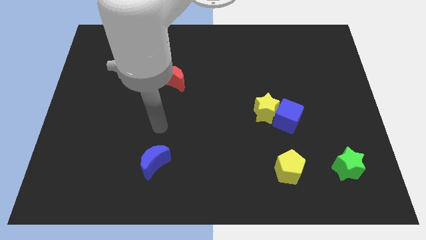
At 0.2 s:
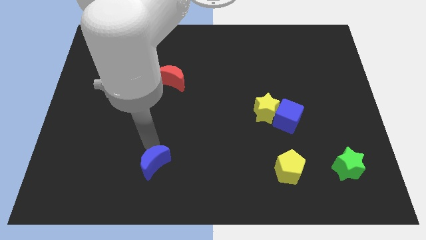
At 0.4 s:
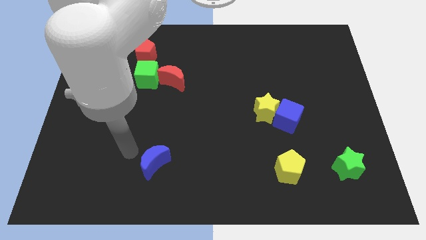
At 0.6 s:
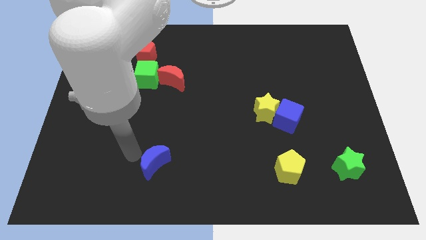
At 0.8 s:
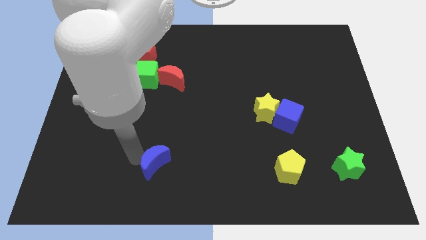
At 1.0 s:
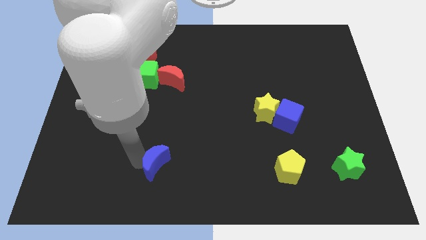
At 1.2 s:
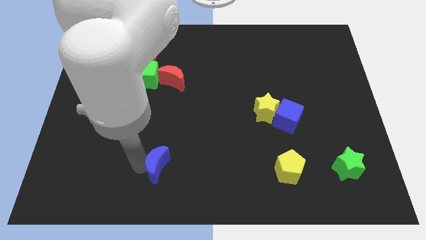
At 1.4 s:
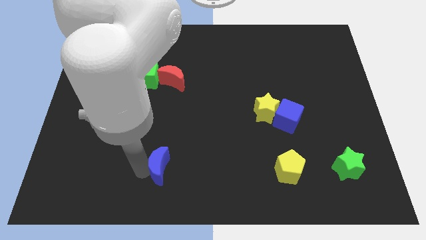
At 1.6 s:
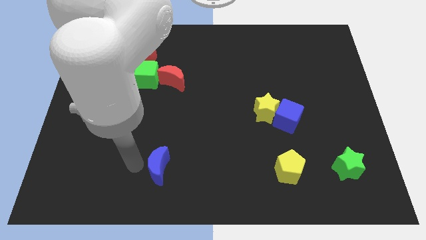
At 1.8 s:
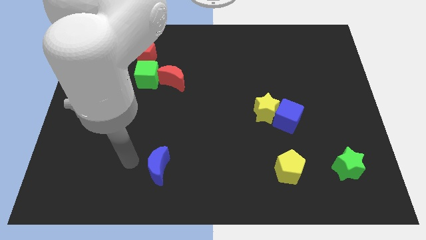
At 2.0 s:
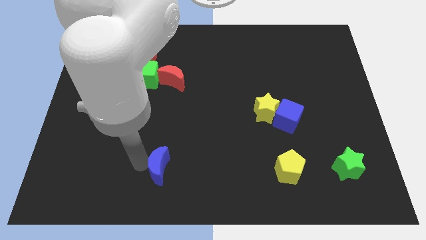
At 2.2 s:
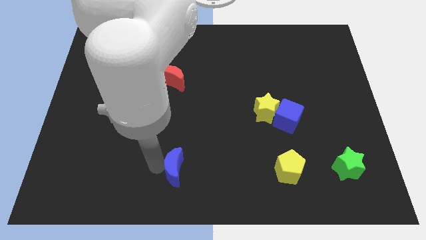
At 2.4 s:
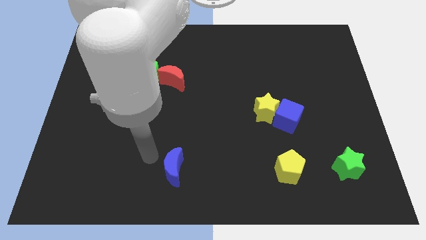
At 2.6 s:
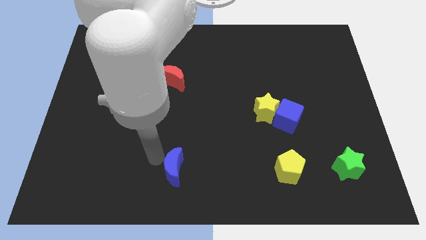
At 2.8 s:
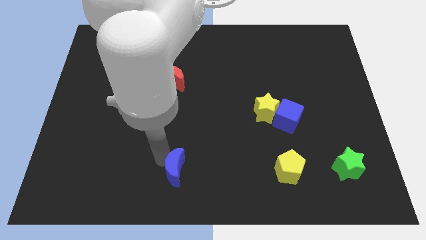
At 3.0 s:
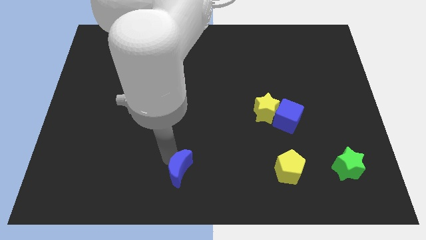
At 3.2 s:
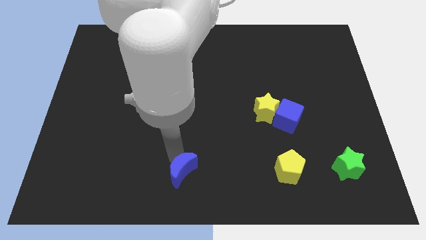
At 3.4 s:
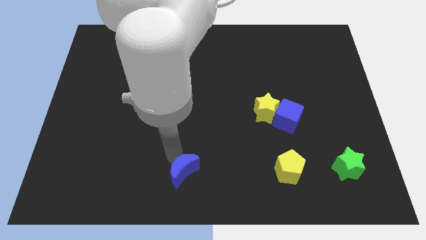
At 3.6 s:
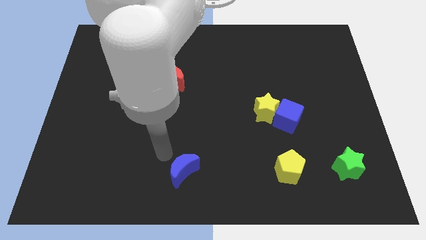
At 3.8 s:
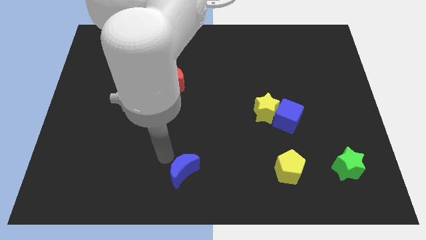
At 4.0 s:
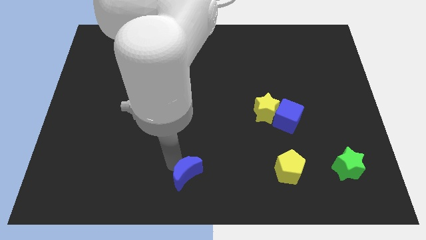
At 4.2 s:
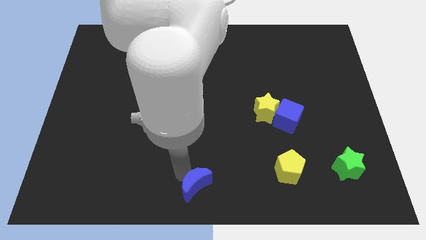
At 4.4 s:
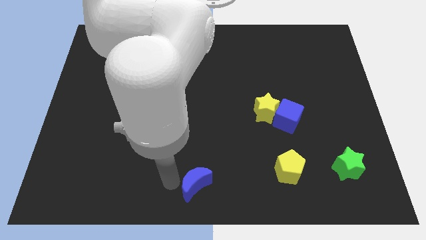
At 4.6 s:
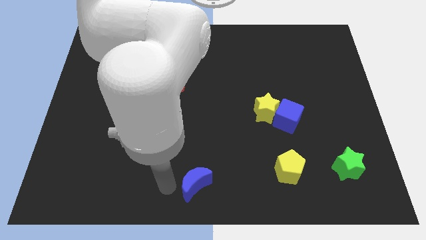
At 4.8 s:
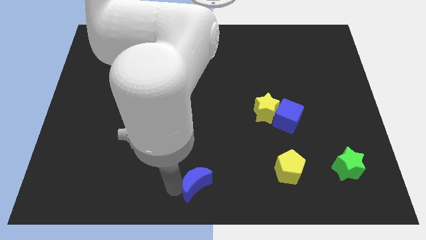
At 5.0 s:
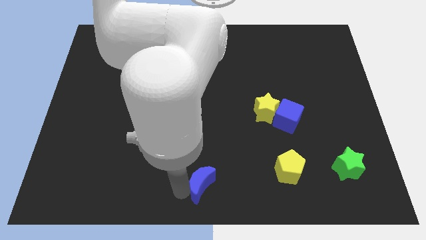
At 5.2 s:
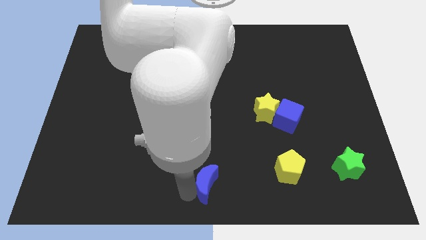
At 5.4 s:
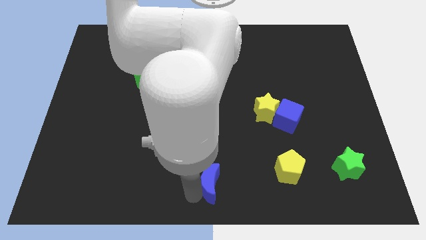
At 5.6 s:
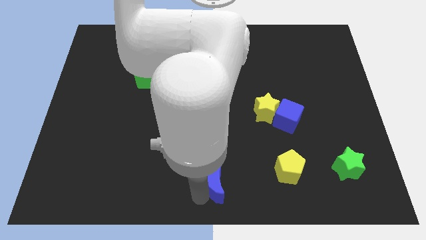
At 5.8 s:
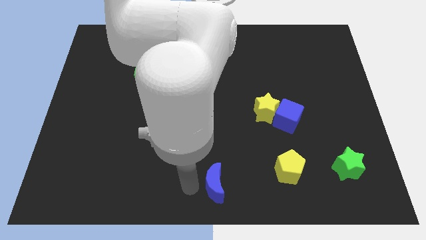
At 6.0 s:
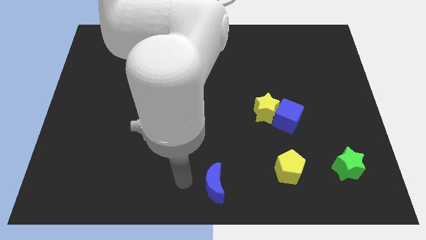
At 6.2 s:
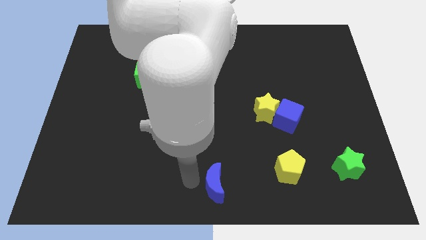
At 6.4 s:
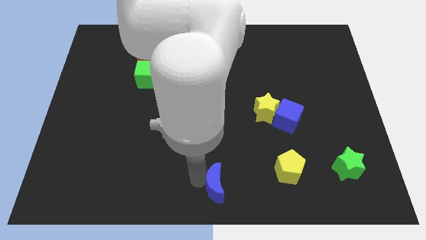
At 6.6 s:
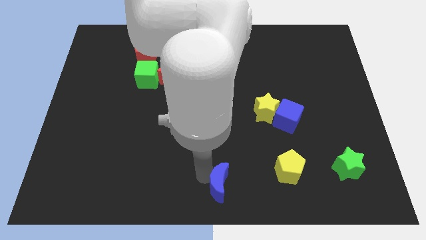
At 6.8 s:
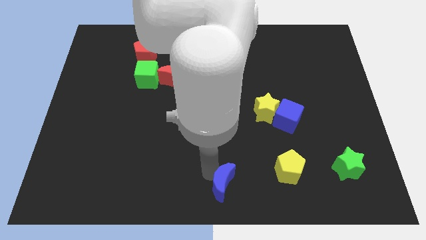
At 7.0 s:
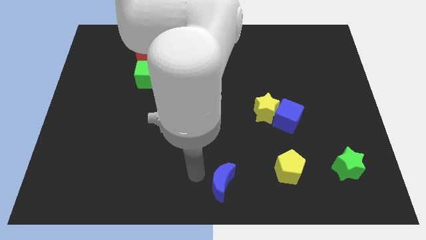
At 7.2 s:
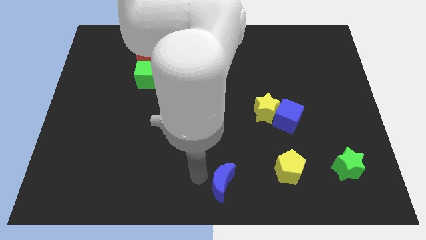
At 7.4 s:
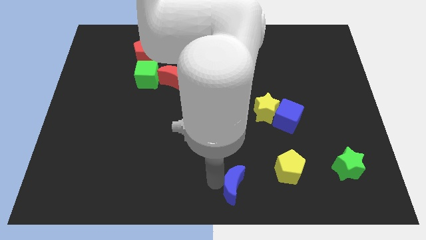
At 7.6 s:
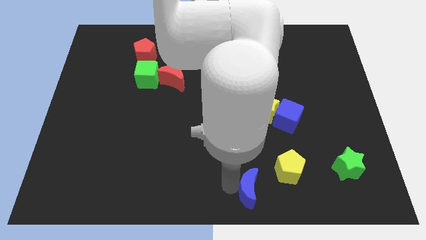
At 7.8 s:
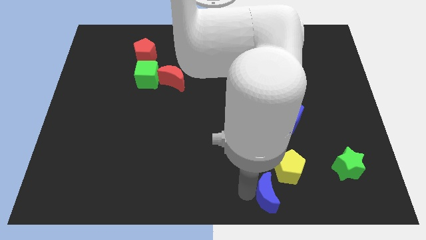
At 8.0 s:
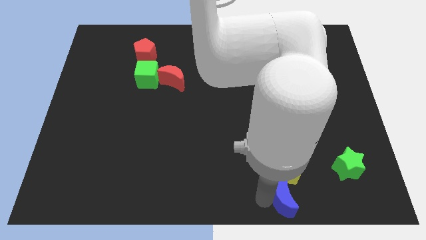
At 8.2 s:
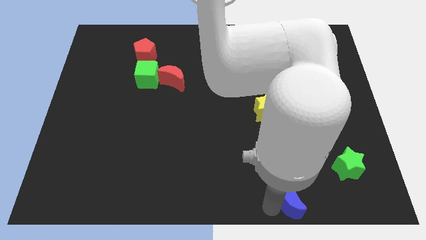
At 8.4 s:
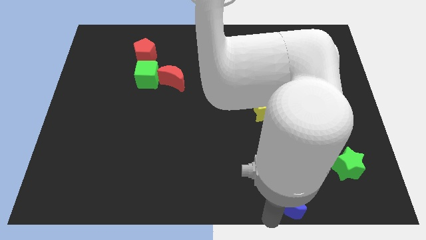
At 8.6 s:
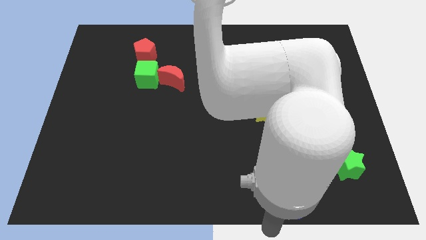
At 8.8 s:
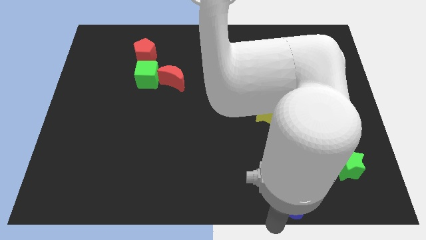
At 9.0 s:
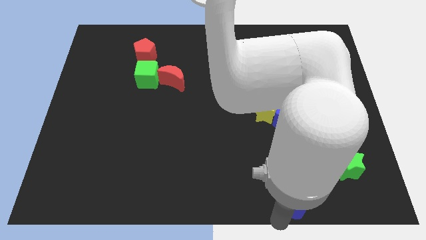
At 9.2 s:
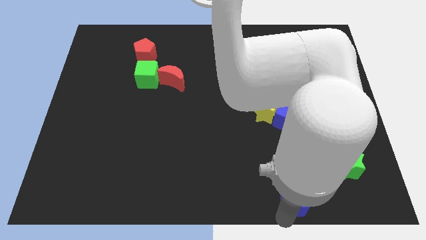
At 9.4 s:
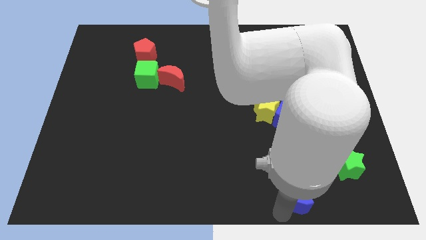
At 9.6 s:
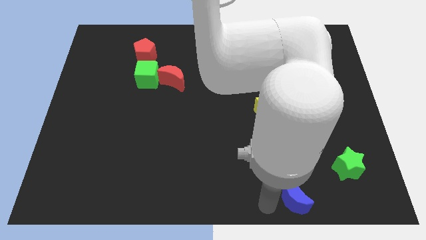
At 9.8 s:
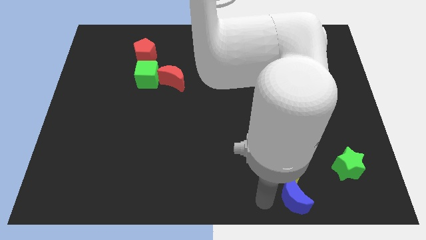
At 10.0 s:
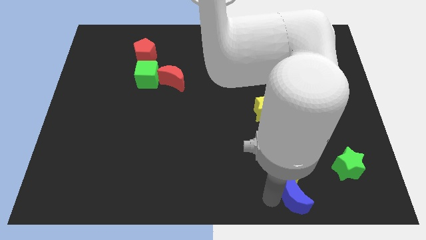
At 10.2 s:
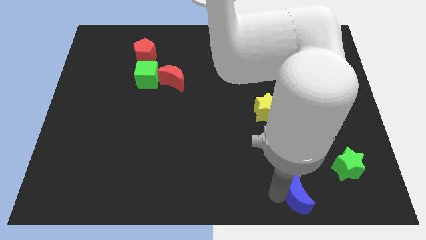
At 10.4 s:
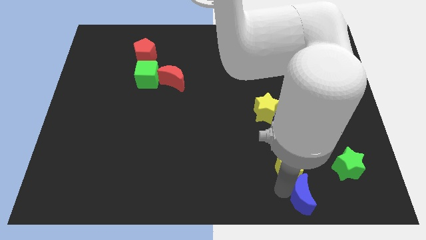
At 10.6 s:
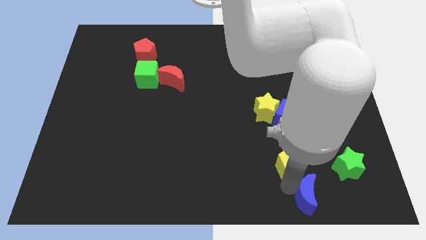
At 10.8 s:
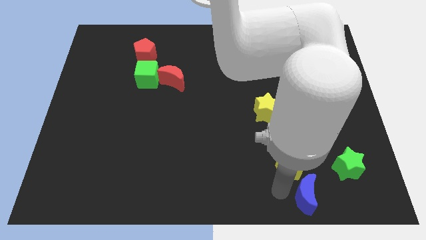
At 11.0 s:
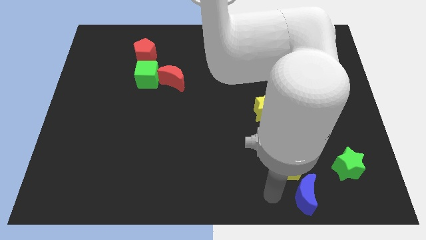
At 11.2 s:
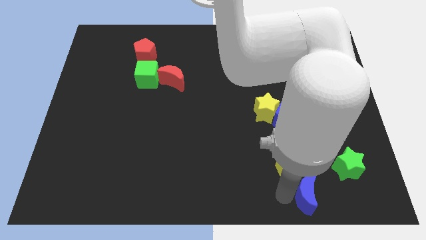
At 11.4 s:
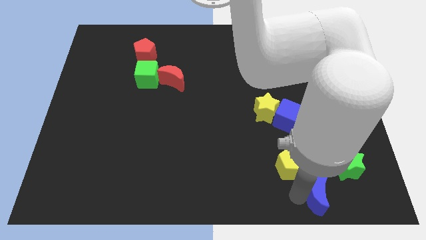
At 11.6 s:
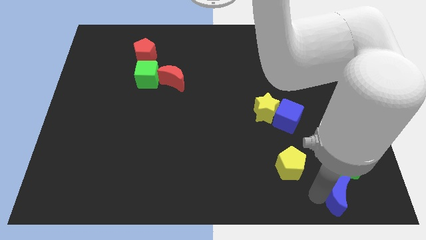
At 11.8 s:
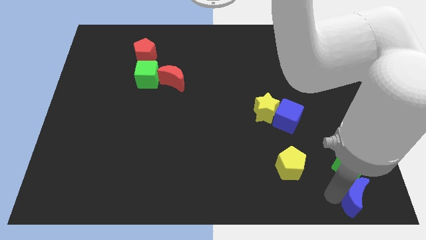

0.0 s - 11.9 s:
push the blue moon to the bottom right corner

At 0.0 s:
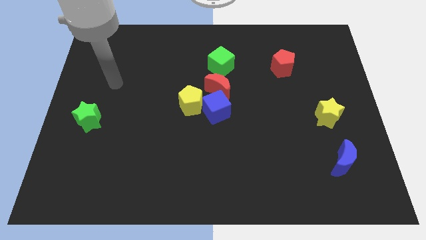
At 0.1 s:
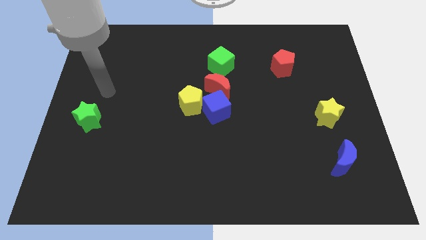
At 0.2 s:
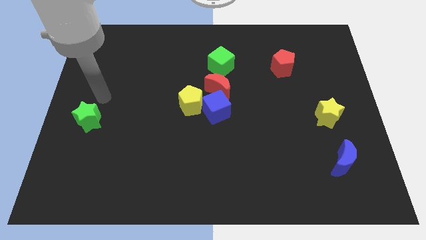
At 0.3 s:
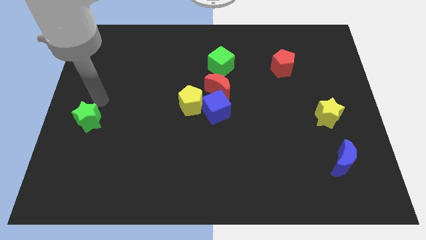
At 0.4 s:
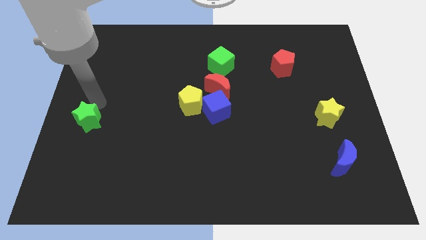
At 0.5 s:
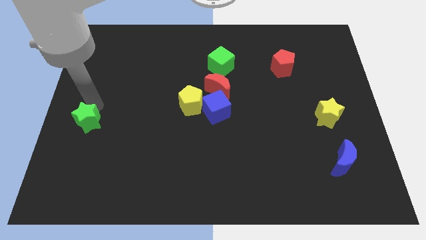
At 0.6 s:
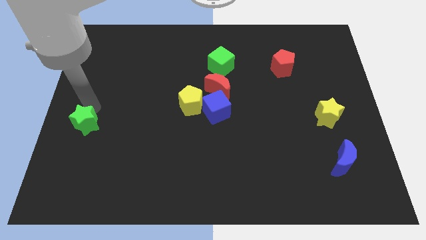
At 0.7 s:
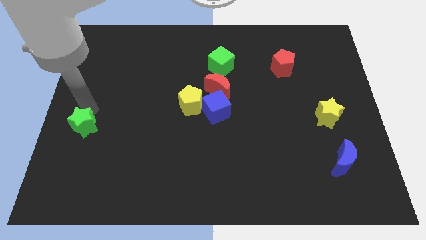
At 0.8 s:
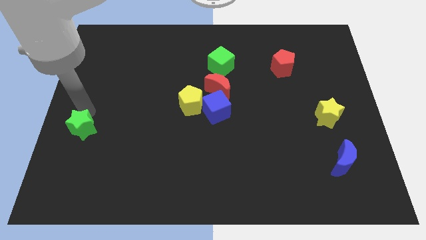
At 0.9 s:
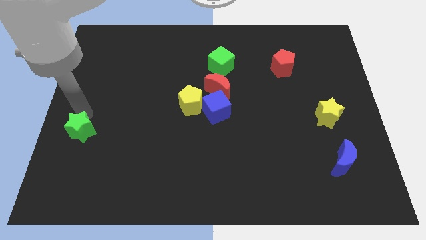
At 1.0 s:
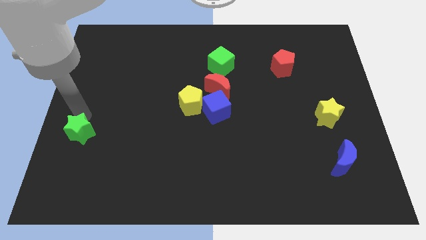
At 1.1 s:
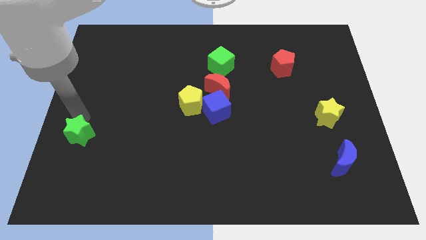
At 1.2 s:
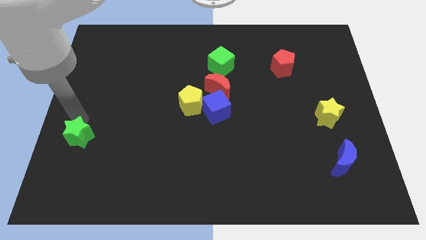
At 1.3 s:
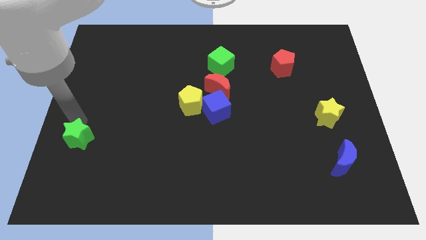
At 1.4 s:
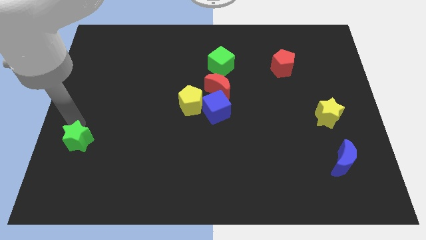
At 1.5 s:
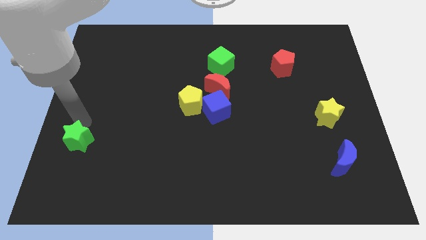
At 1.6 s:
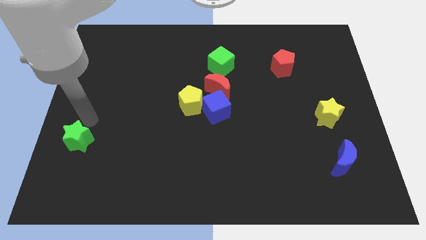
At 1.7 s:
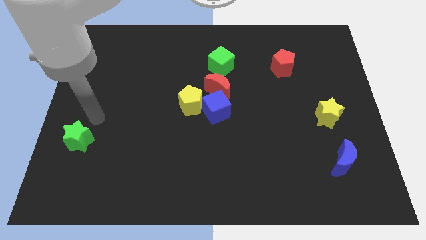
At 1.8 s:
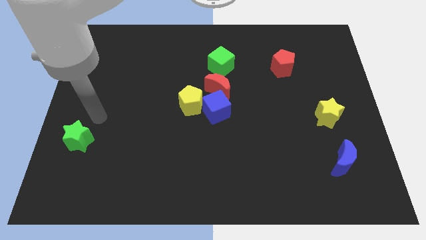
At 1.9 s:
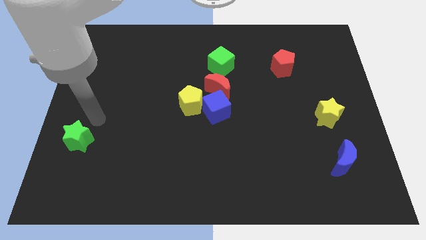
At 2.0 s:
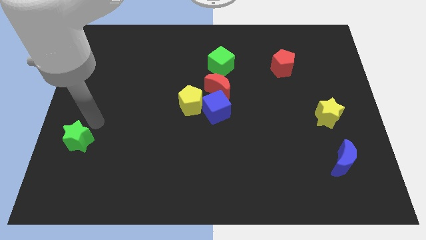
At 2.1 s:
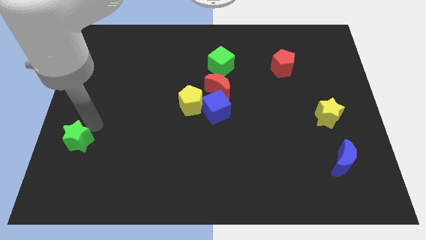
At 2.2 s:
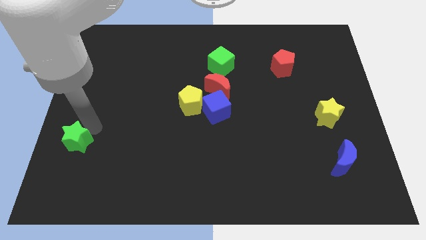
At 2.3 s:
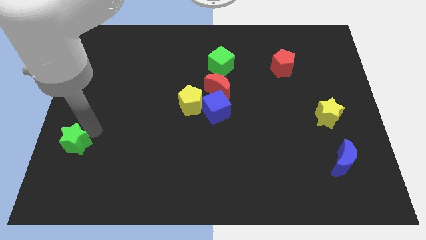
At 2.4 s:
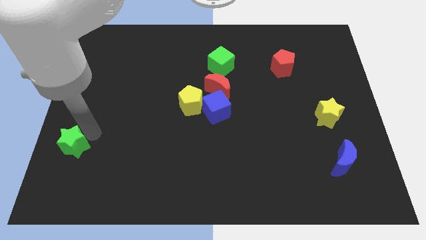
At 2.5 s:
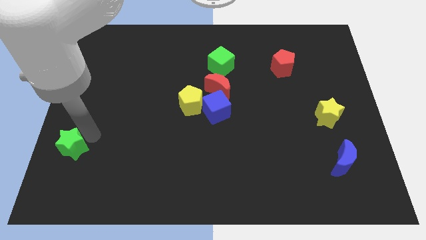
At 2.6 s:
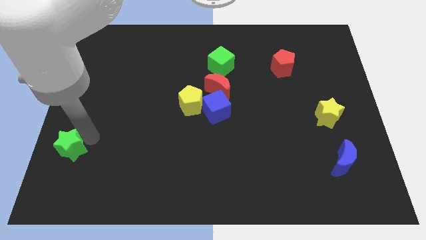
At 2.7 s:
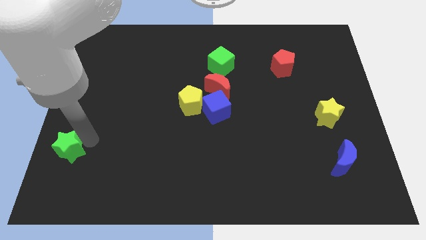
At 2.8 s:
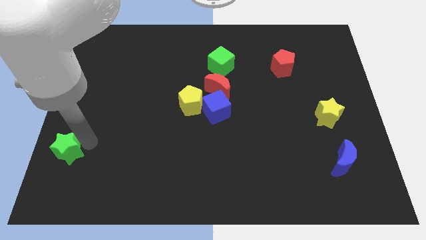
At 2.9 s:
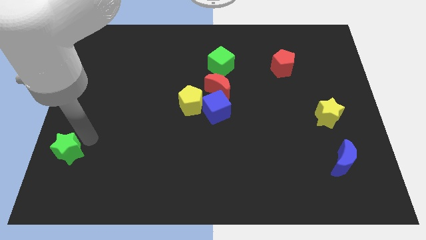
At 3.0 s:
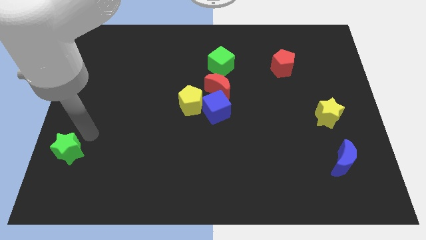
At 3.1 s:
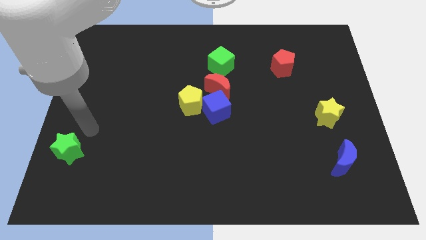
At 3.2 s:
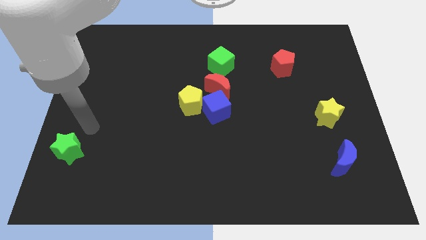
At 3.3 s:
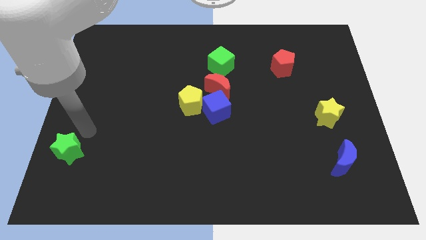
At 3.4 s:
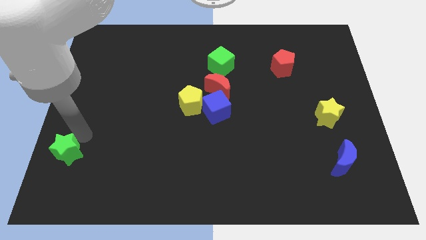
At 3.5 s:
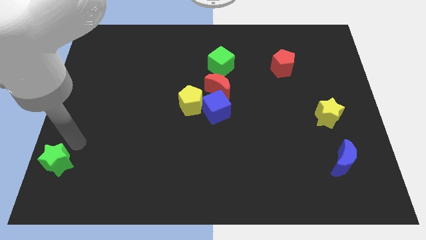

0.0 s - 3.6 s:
put the green star to the bottom left corner
